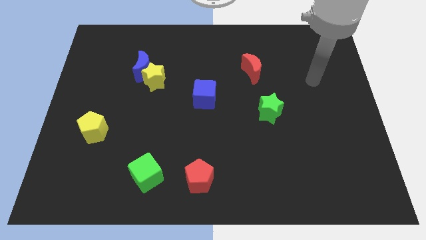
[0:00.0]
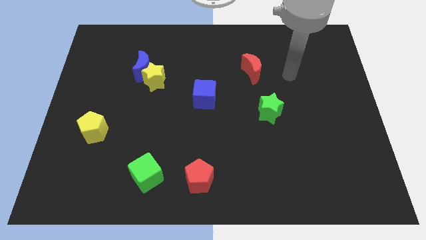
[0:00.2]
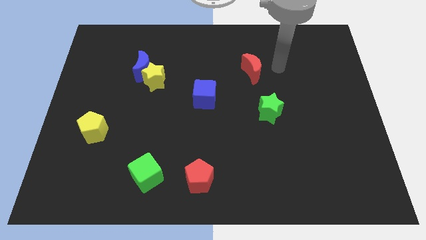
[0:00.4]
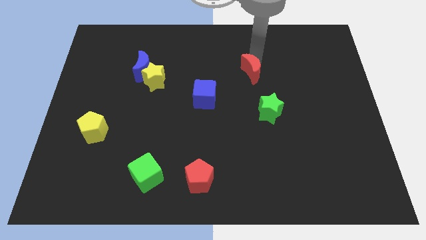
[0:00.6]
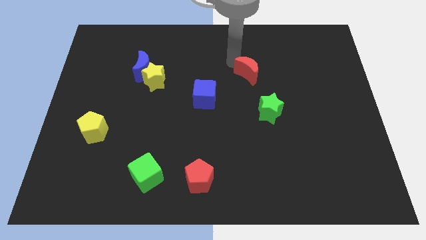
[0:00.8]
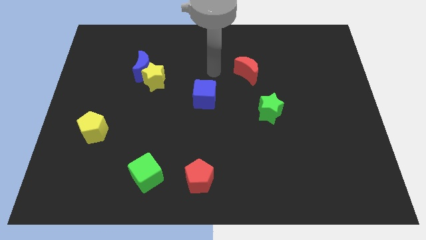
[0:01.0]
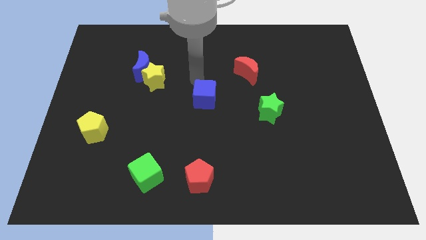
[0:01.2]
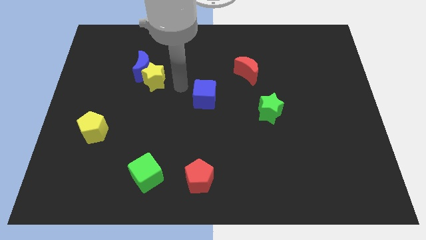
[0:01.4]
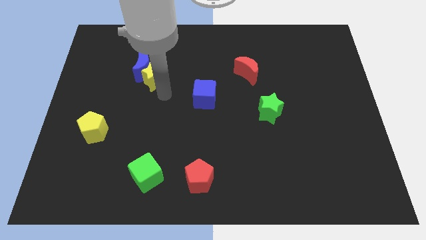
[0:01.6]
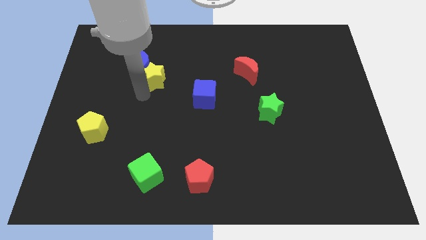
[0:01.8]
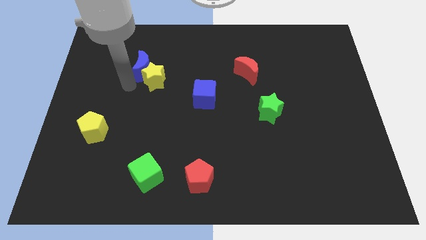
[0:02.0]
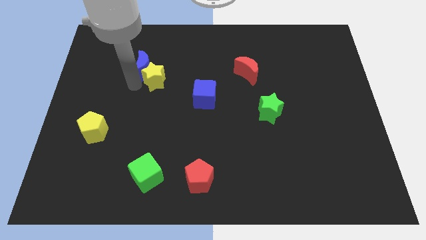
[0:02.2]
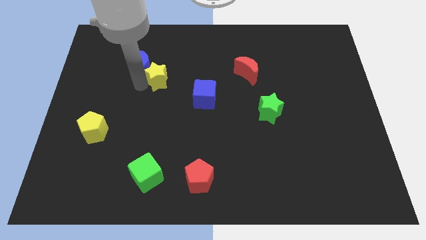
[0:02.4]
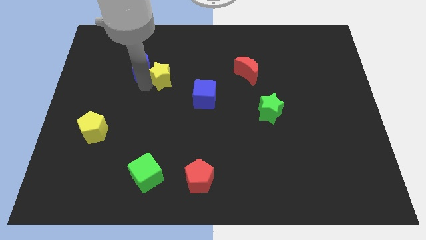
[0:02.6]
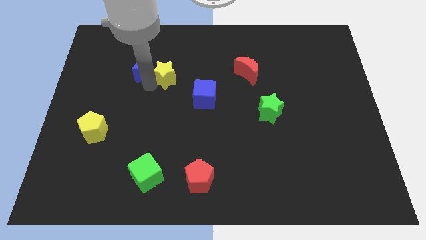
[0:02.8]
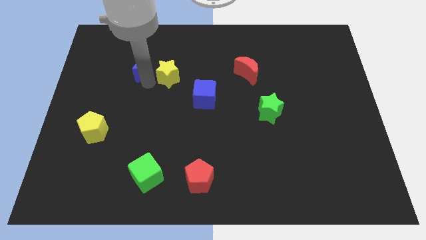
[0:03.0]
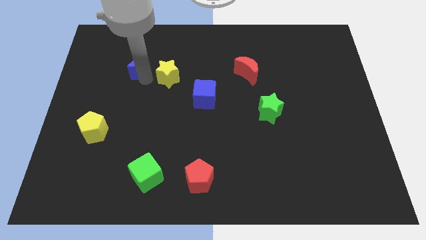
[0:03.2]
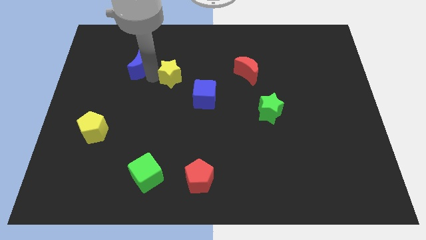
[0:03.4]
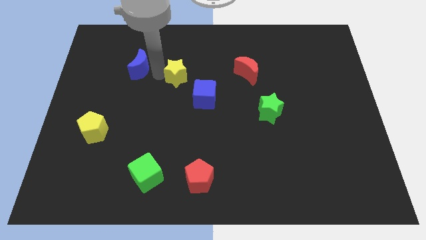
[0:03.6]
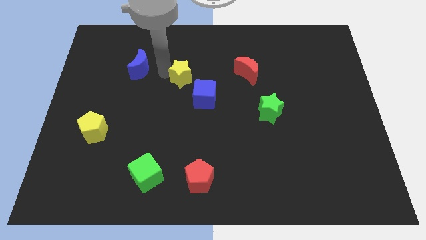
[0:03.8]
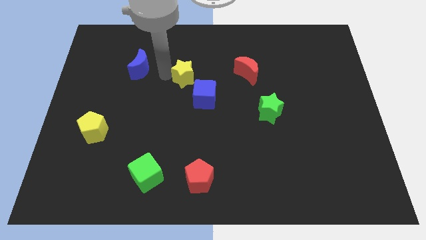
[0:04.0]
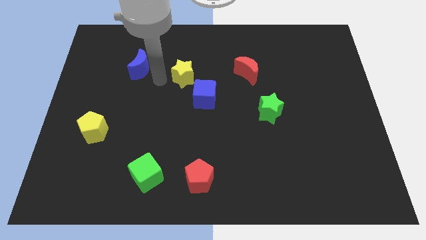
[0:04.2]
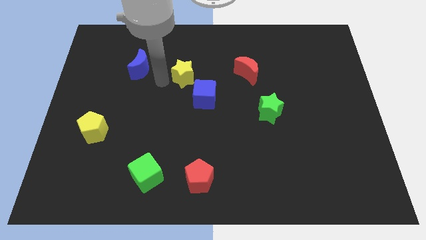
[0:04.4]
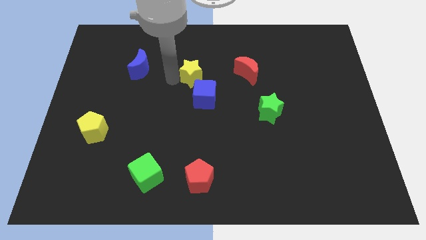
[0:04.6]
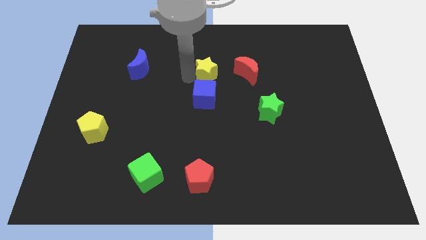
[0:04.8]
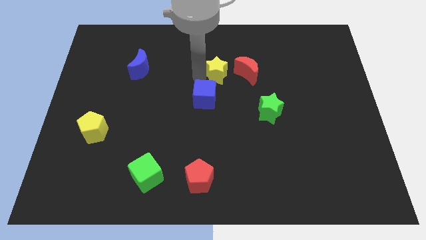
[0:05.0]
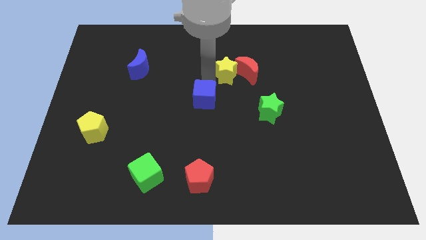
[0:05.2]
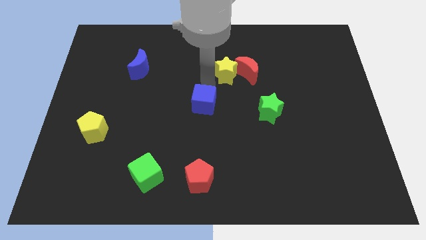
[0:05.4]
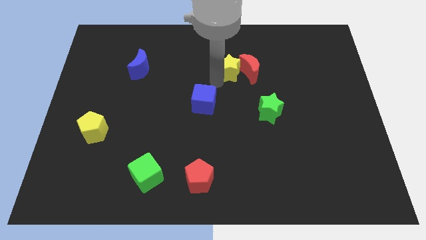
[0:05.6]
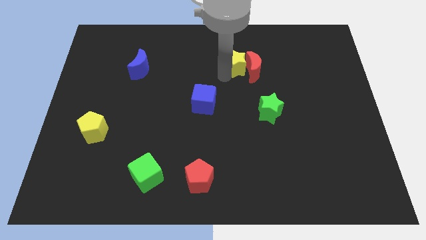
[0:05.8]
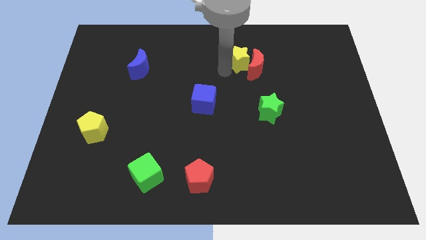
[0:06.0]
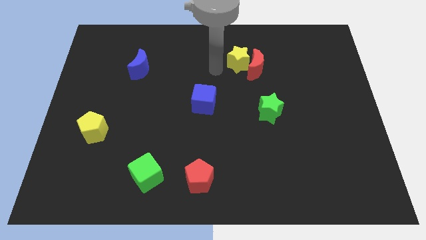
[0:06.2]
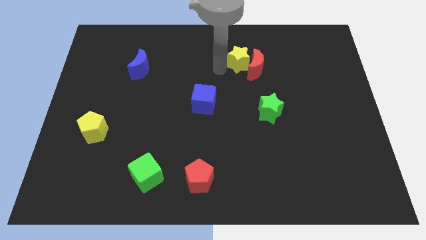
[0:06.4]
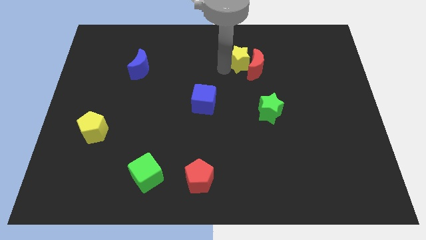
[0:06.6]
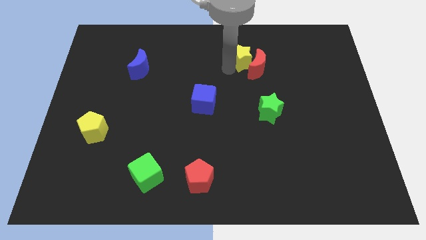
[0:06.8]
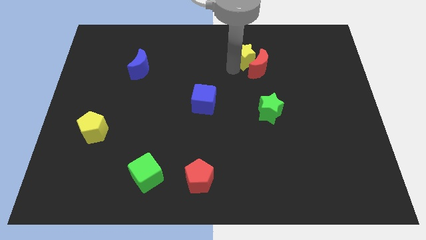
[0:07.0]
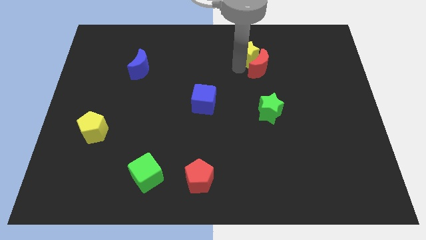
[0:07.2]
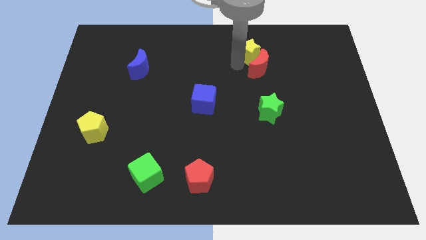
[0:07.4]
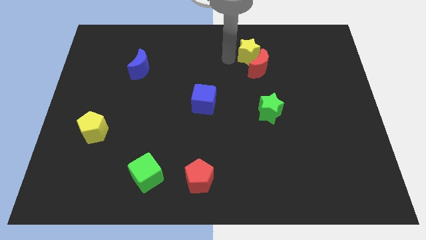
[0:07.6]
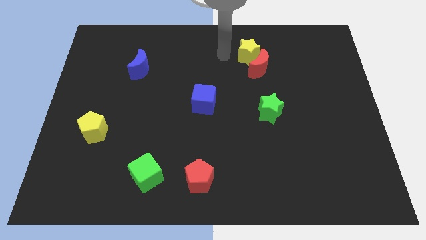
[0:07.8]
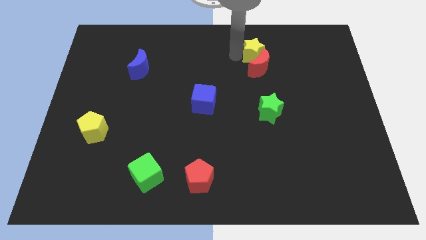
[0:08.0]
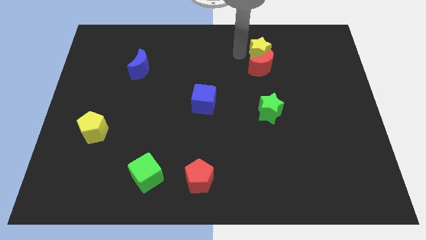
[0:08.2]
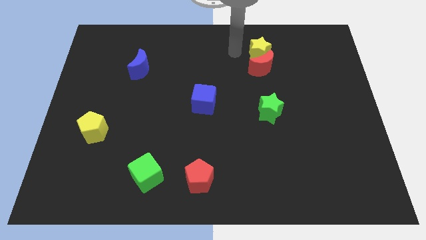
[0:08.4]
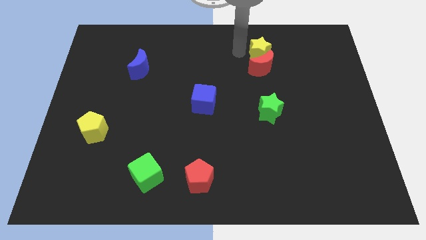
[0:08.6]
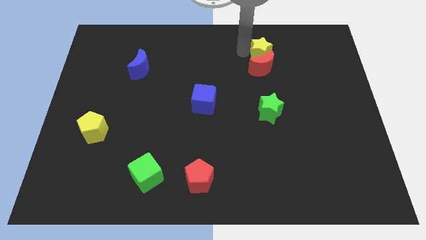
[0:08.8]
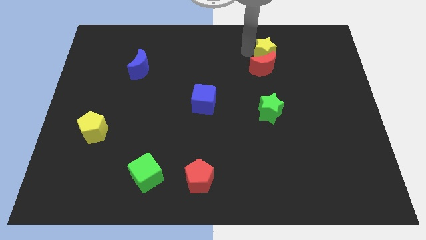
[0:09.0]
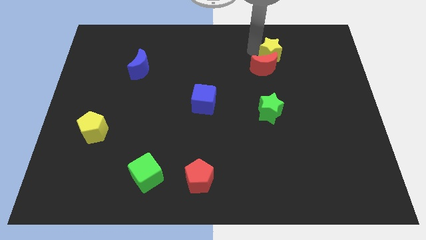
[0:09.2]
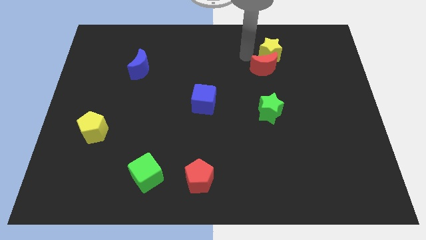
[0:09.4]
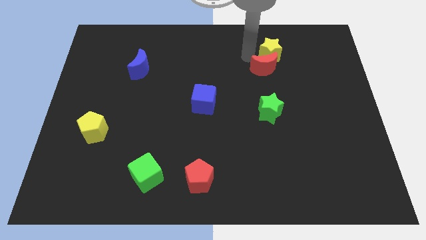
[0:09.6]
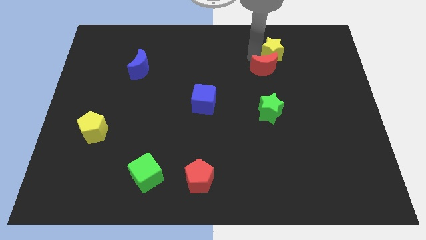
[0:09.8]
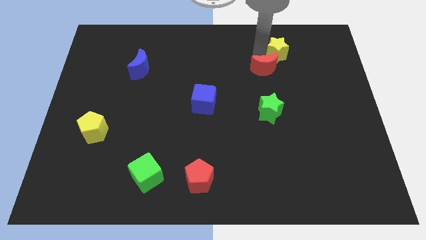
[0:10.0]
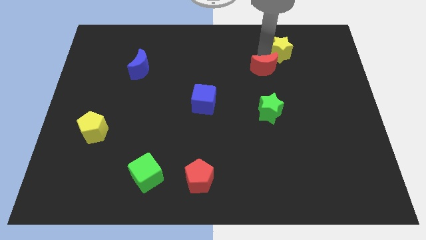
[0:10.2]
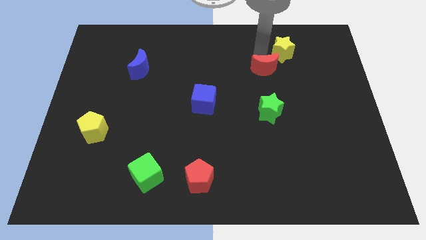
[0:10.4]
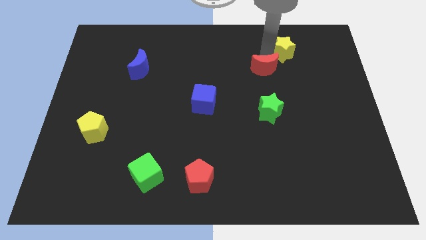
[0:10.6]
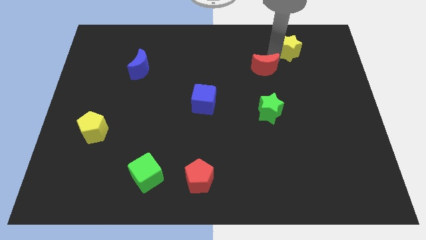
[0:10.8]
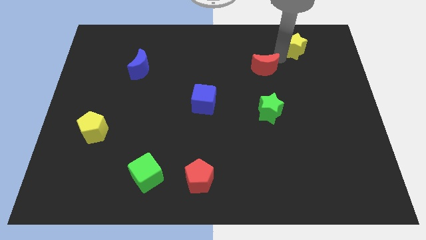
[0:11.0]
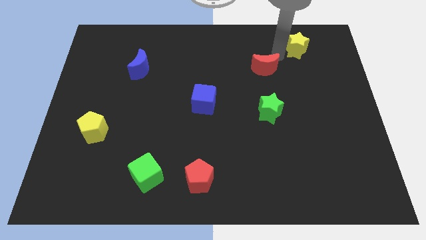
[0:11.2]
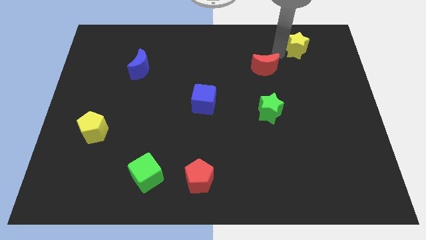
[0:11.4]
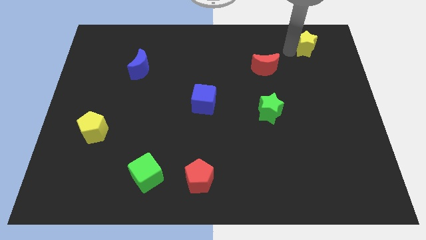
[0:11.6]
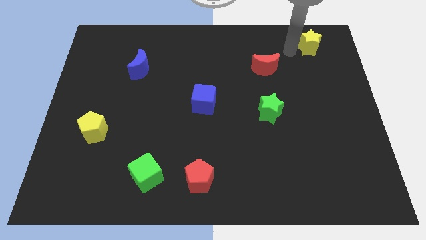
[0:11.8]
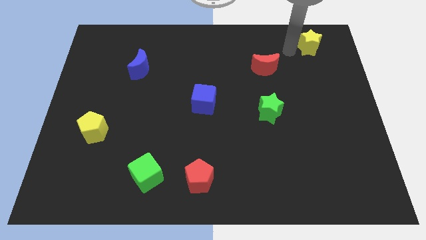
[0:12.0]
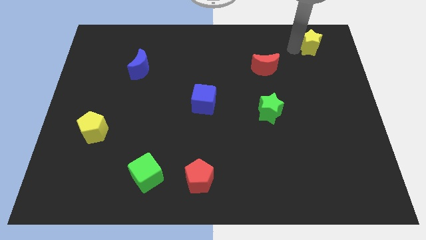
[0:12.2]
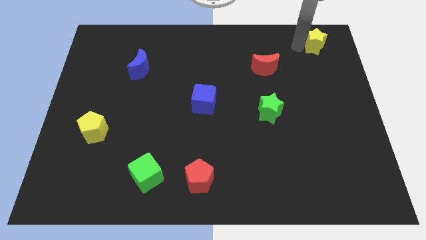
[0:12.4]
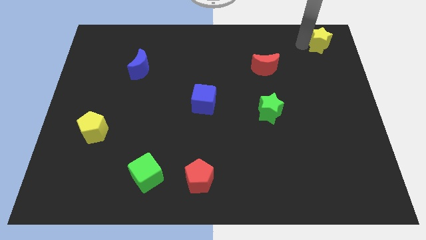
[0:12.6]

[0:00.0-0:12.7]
push the yellow star to the upper right corner
